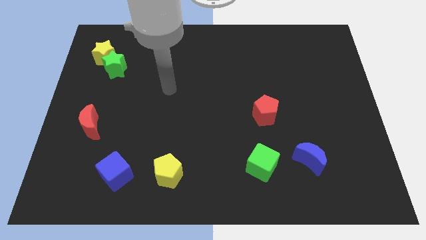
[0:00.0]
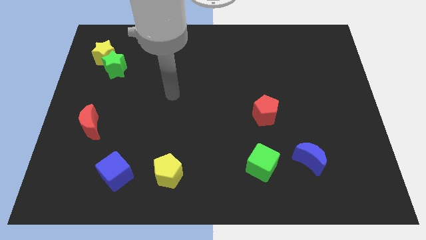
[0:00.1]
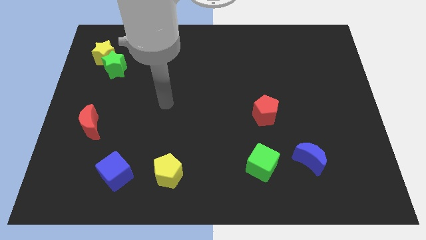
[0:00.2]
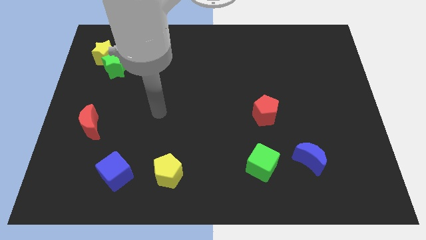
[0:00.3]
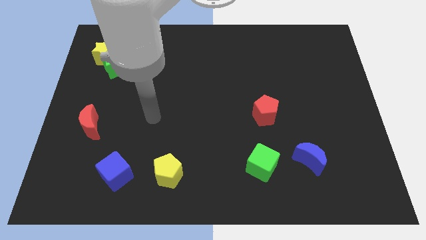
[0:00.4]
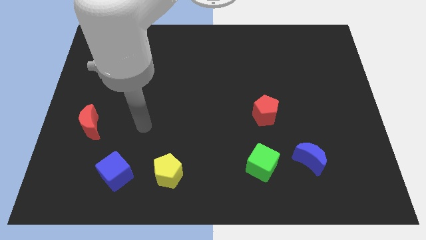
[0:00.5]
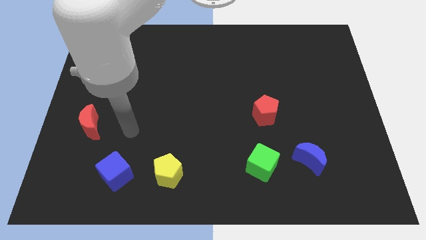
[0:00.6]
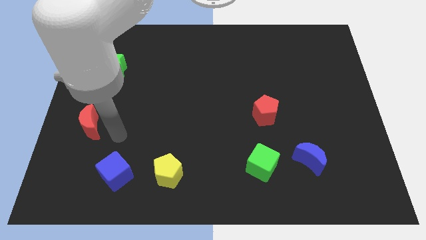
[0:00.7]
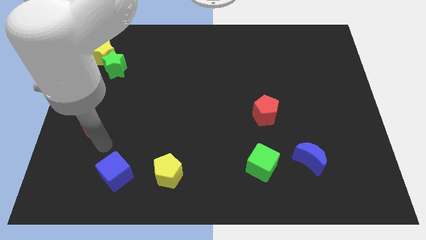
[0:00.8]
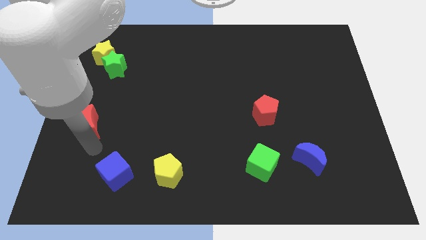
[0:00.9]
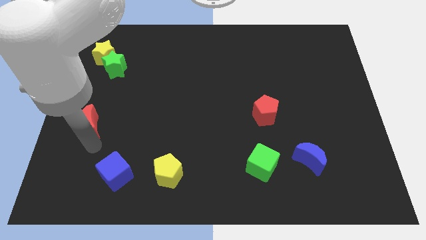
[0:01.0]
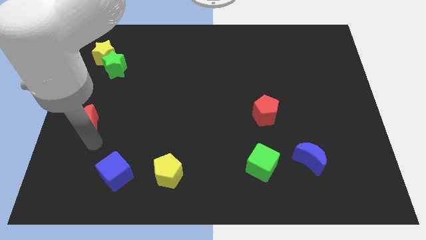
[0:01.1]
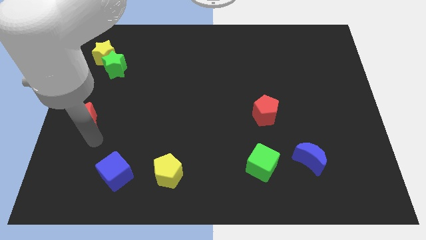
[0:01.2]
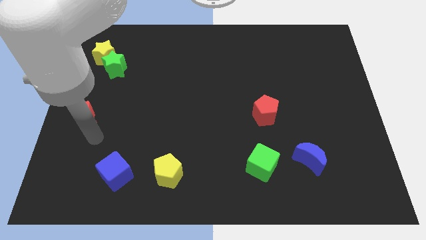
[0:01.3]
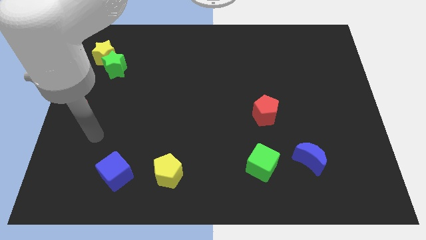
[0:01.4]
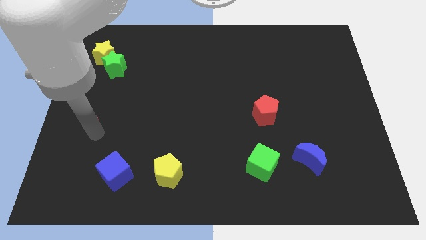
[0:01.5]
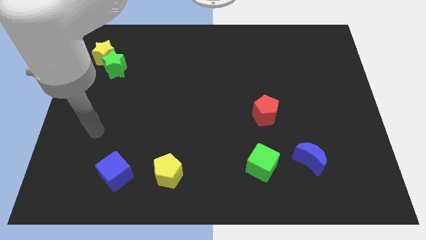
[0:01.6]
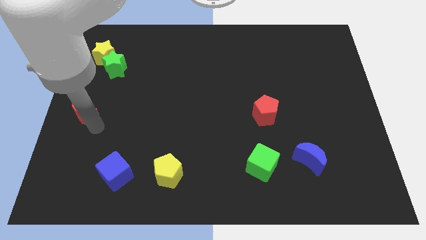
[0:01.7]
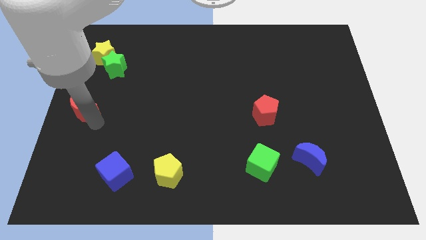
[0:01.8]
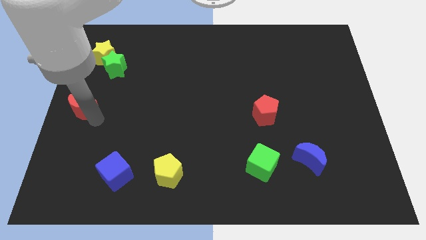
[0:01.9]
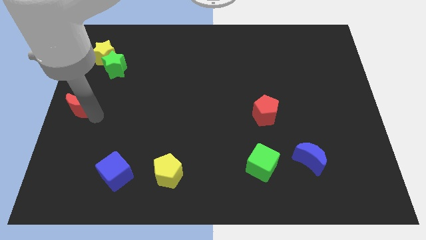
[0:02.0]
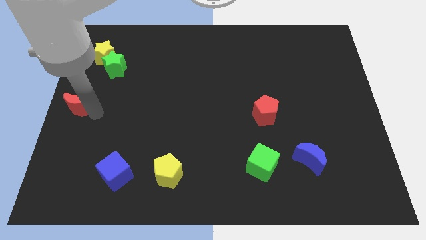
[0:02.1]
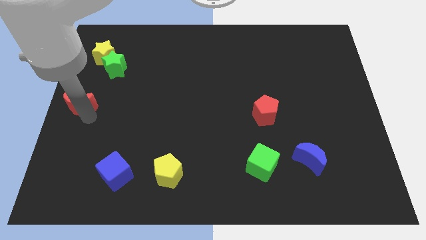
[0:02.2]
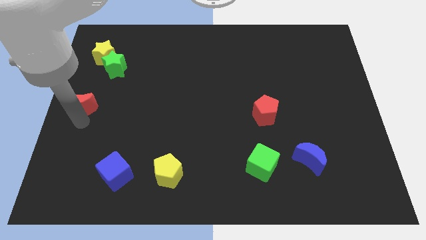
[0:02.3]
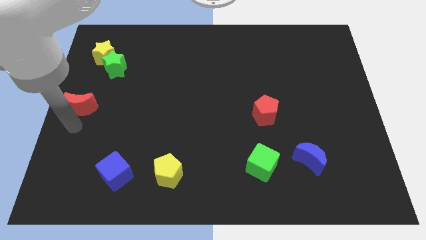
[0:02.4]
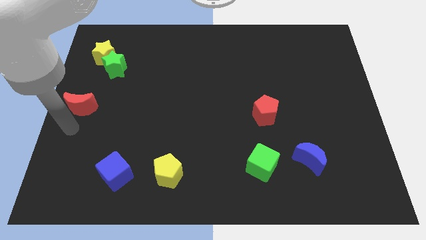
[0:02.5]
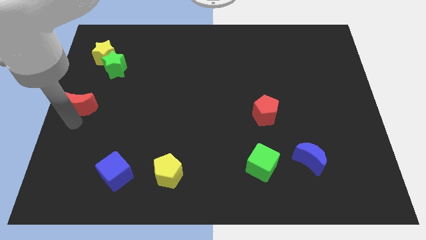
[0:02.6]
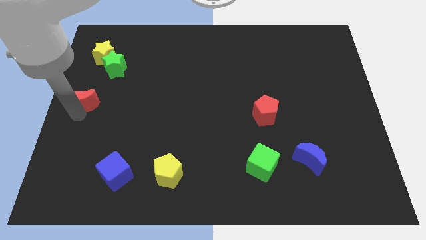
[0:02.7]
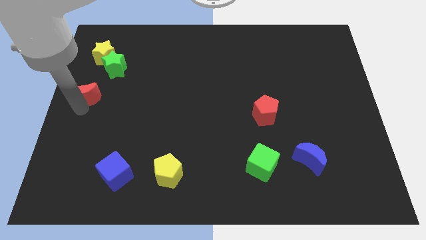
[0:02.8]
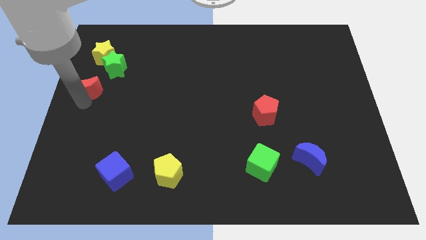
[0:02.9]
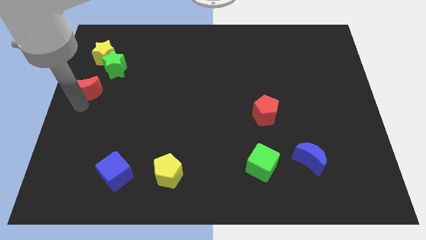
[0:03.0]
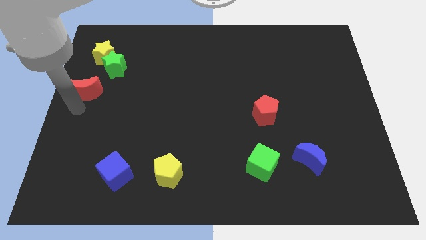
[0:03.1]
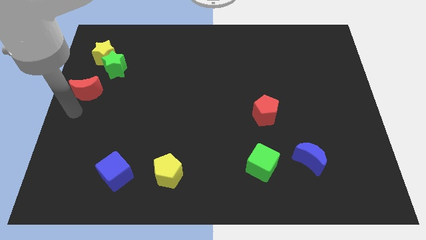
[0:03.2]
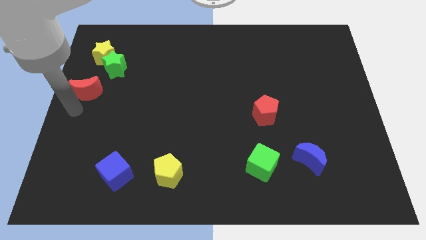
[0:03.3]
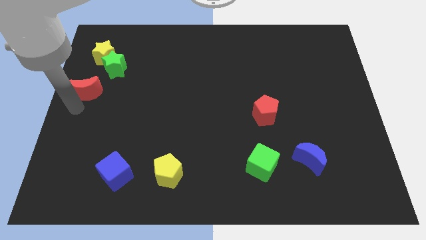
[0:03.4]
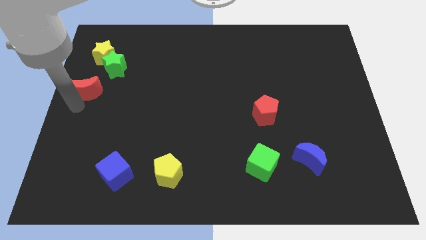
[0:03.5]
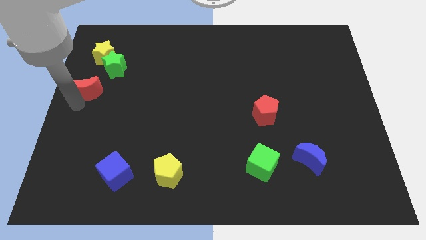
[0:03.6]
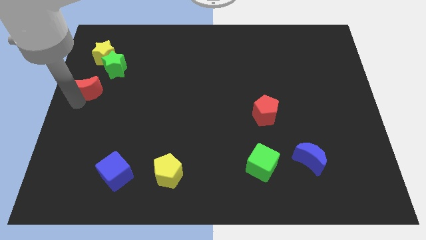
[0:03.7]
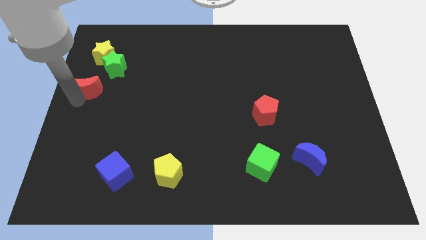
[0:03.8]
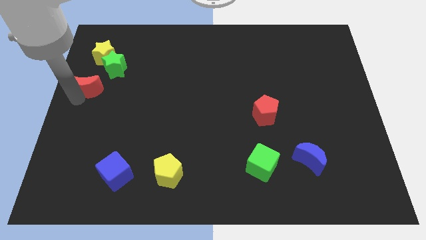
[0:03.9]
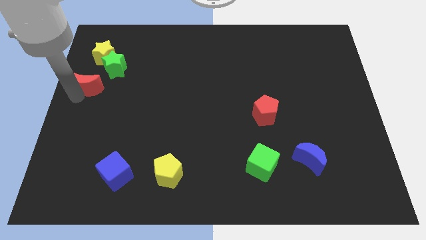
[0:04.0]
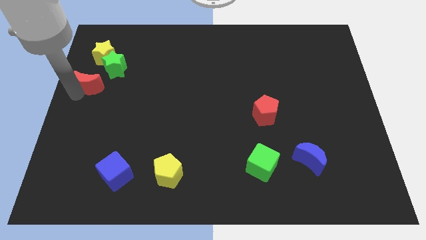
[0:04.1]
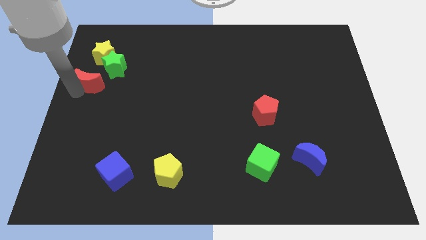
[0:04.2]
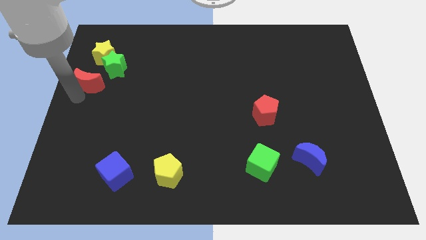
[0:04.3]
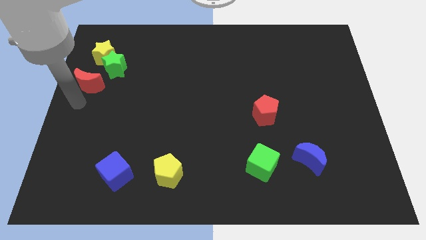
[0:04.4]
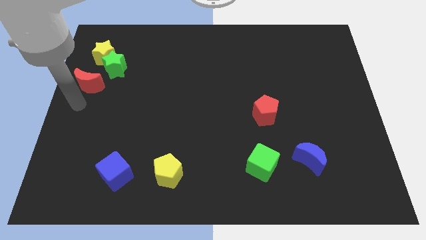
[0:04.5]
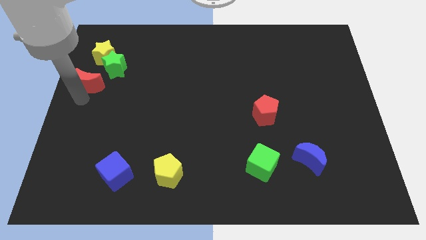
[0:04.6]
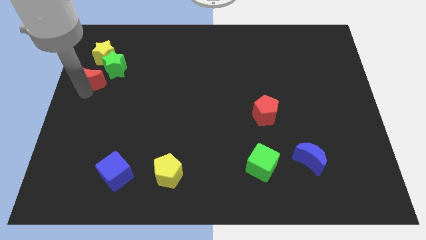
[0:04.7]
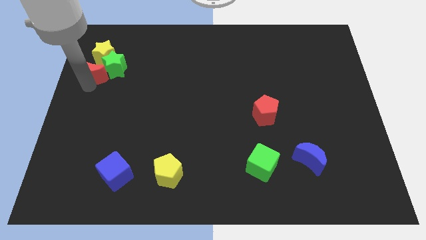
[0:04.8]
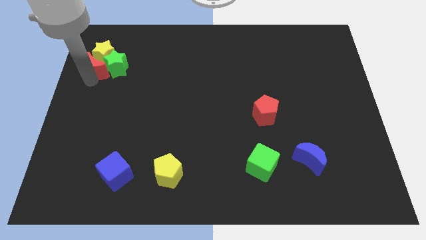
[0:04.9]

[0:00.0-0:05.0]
push the red moon next to the yellow star

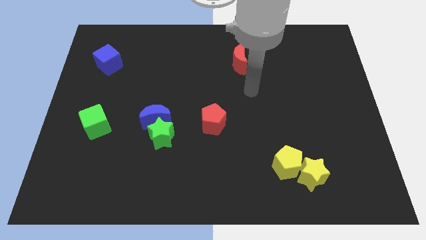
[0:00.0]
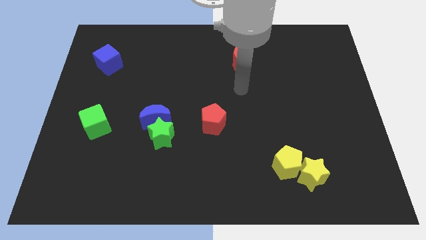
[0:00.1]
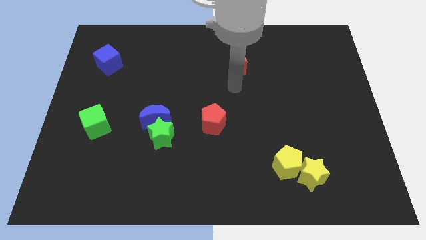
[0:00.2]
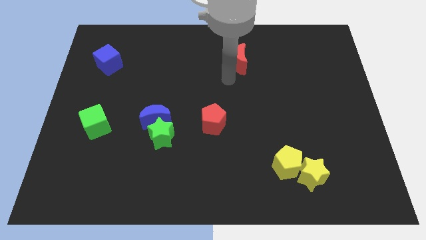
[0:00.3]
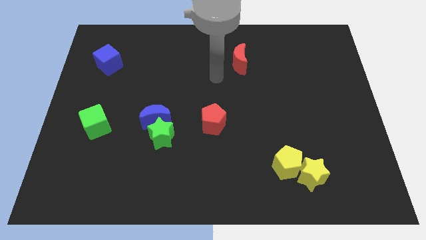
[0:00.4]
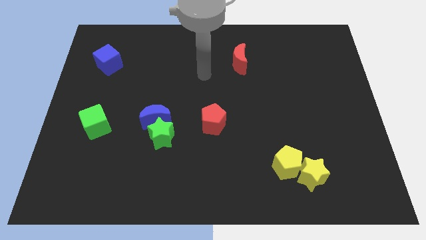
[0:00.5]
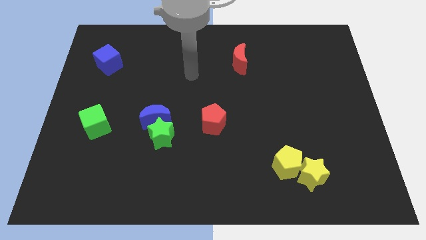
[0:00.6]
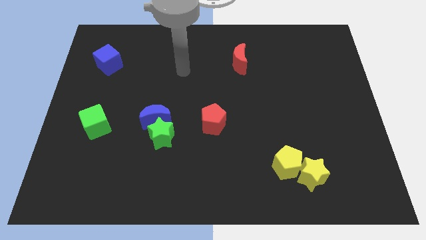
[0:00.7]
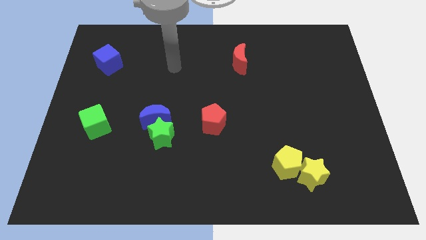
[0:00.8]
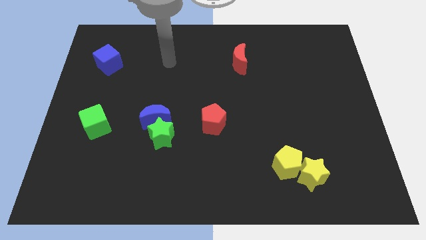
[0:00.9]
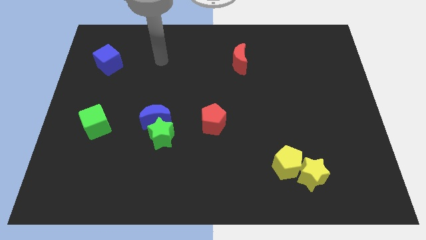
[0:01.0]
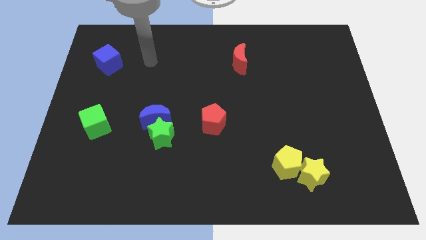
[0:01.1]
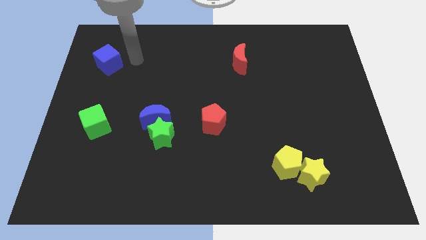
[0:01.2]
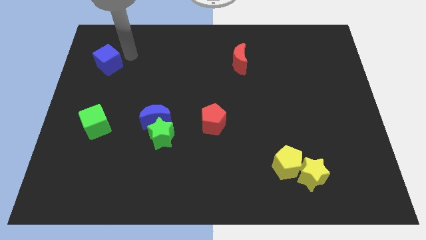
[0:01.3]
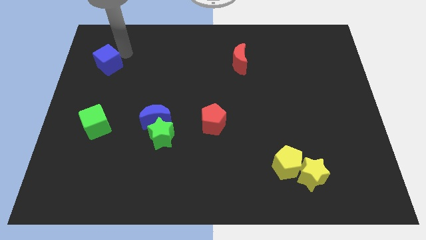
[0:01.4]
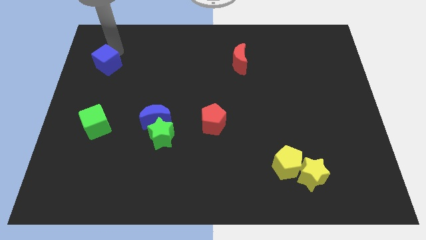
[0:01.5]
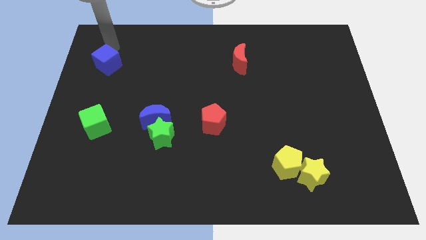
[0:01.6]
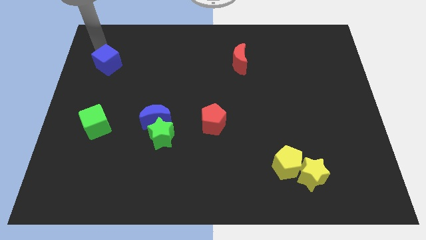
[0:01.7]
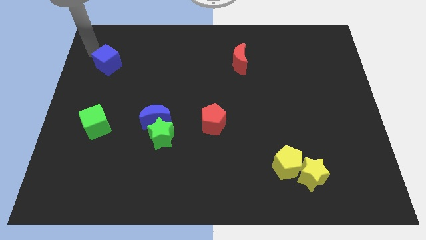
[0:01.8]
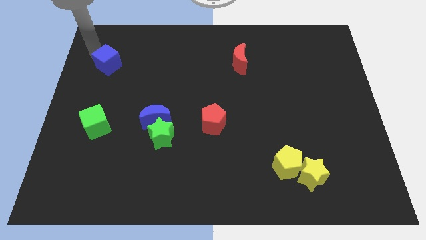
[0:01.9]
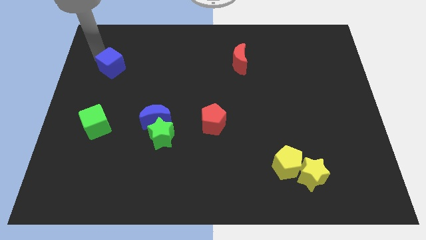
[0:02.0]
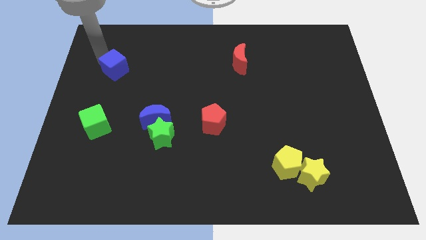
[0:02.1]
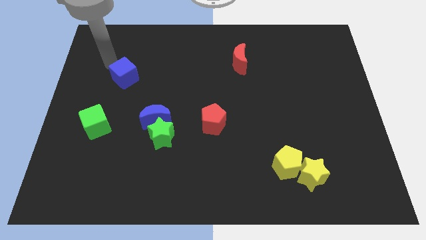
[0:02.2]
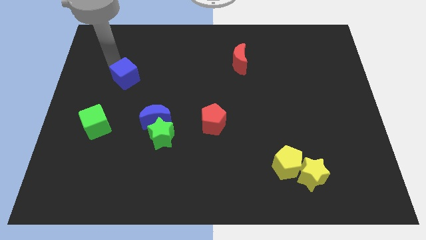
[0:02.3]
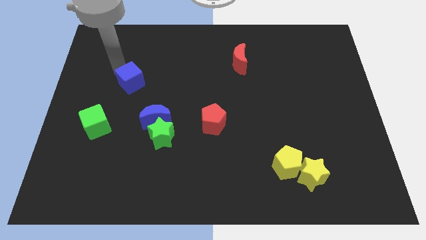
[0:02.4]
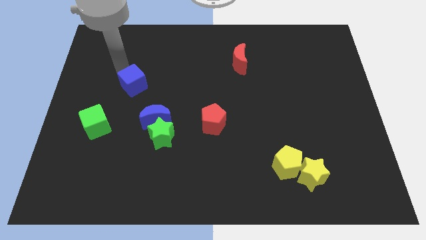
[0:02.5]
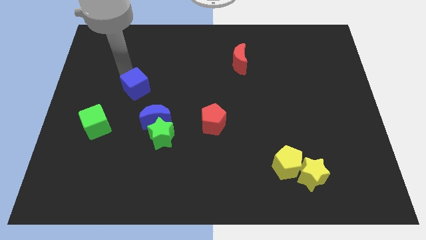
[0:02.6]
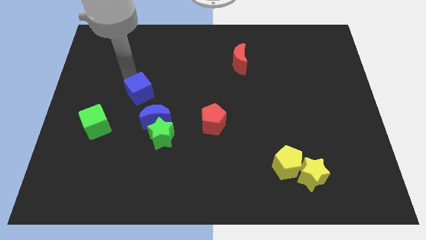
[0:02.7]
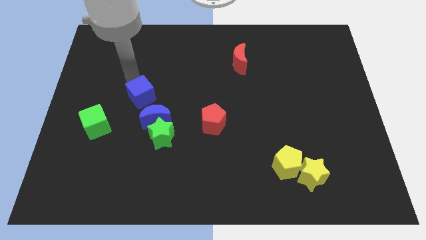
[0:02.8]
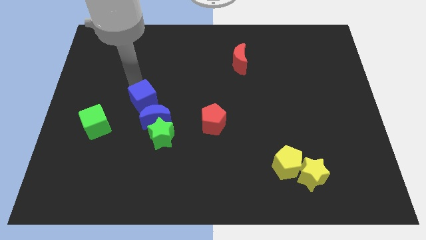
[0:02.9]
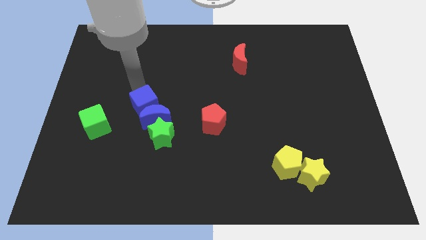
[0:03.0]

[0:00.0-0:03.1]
push the blue cube towards the blue moon
